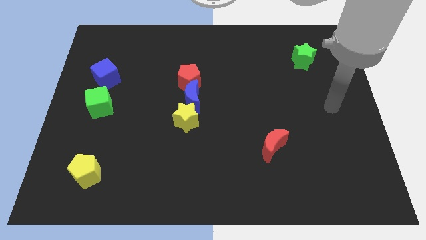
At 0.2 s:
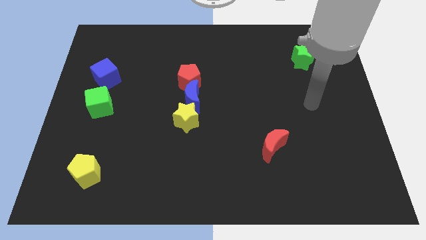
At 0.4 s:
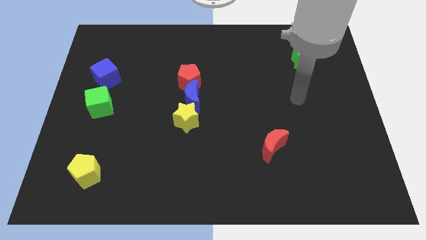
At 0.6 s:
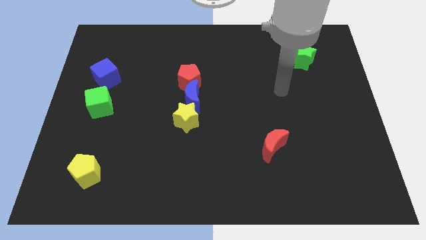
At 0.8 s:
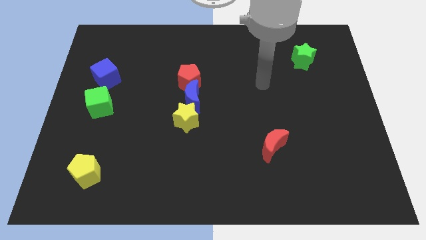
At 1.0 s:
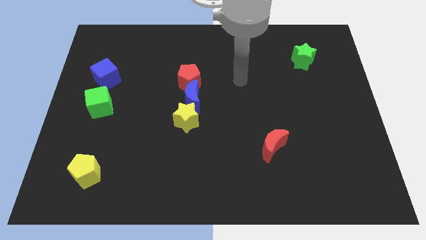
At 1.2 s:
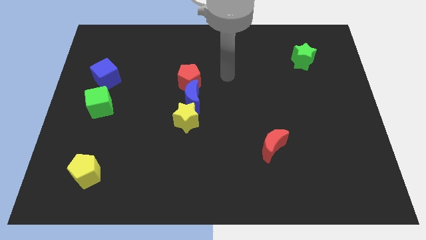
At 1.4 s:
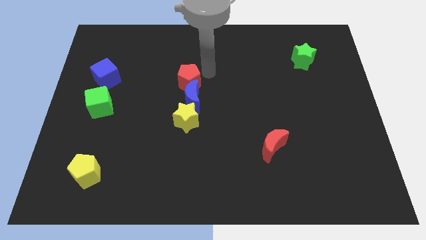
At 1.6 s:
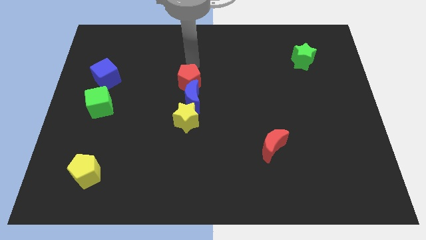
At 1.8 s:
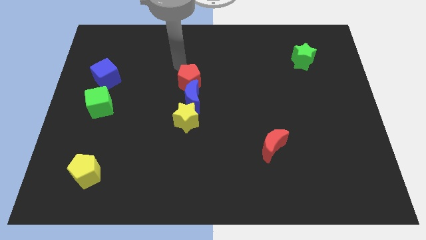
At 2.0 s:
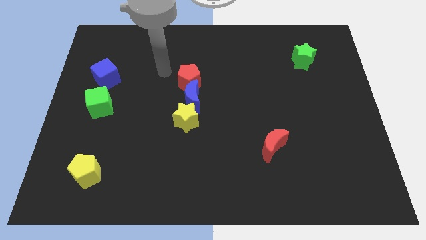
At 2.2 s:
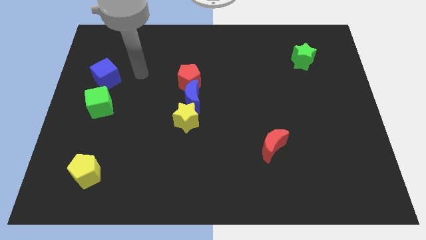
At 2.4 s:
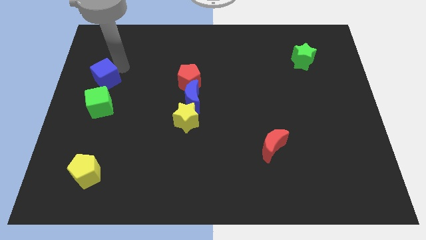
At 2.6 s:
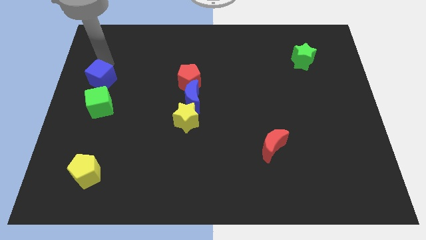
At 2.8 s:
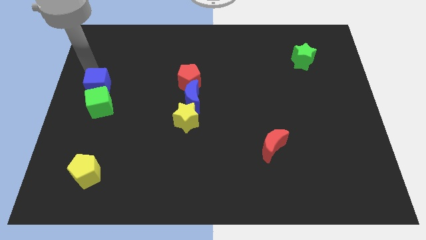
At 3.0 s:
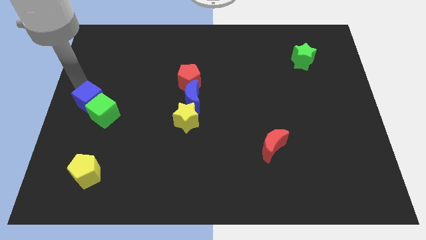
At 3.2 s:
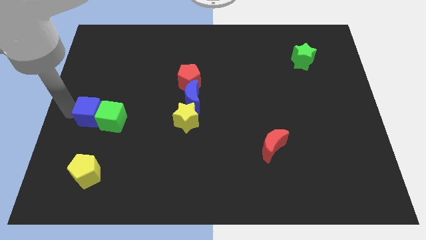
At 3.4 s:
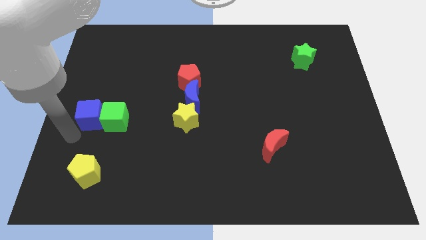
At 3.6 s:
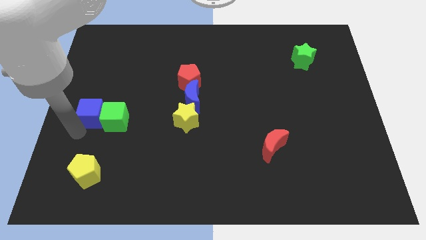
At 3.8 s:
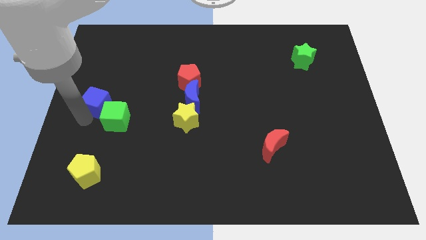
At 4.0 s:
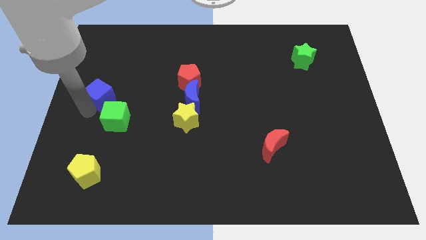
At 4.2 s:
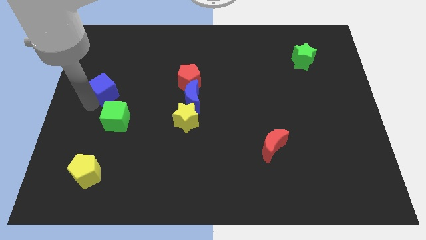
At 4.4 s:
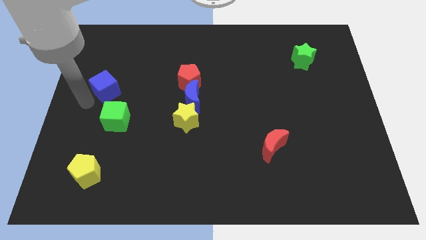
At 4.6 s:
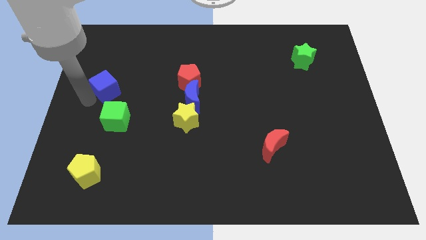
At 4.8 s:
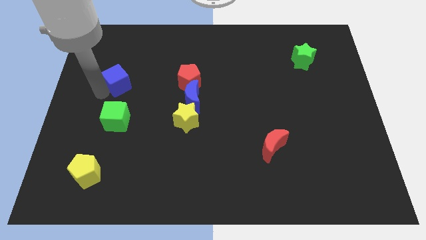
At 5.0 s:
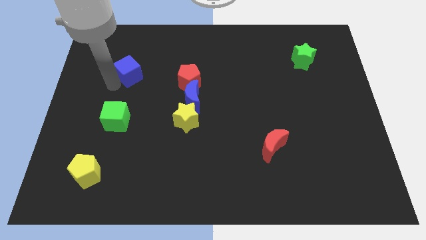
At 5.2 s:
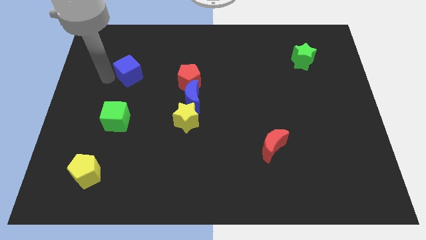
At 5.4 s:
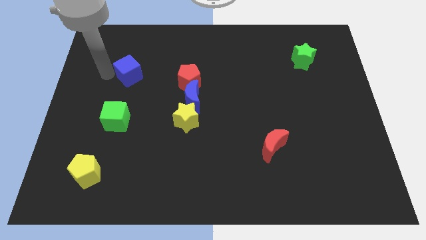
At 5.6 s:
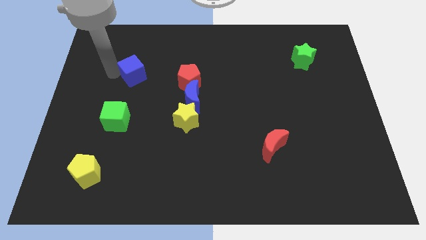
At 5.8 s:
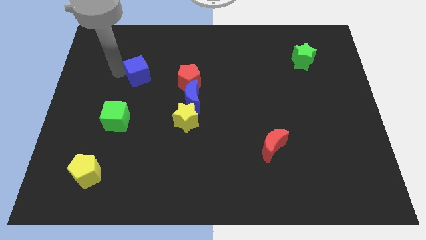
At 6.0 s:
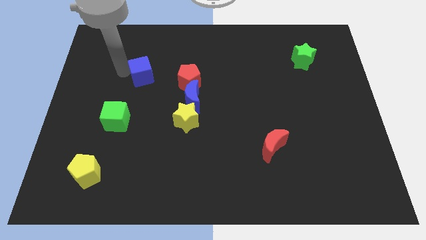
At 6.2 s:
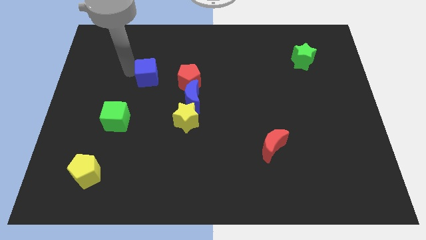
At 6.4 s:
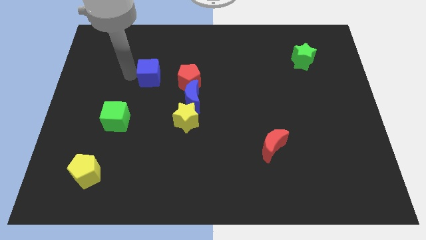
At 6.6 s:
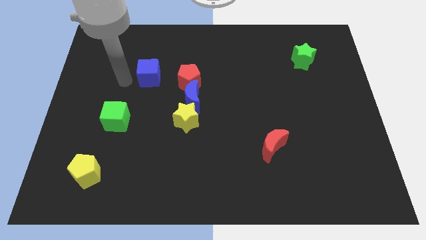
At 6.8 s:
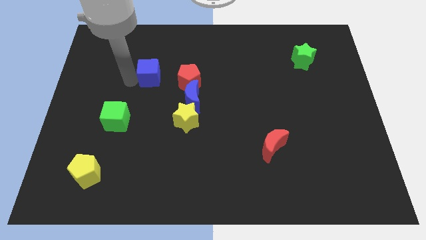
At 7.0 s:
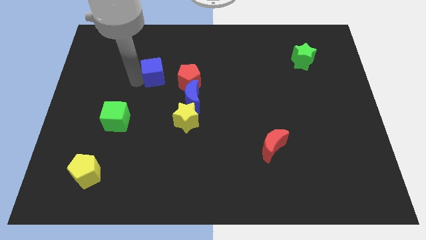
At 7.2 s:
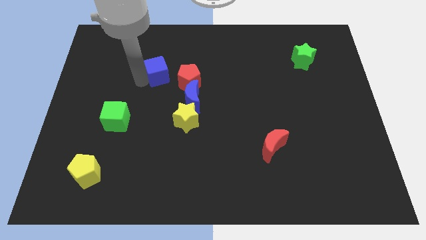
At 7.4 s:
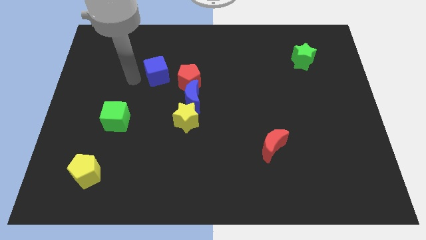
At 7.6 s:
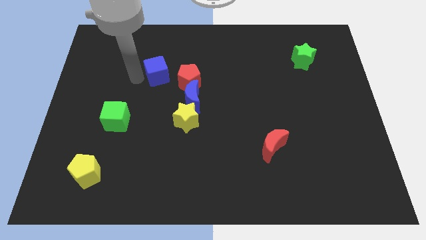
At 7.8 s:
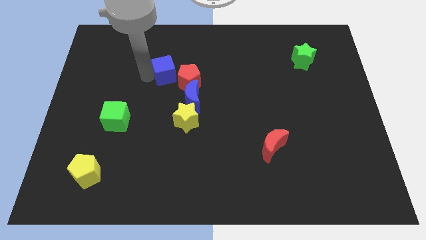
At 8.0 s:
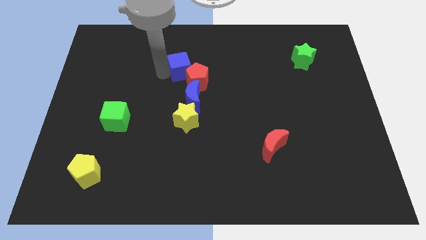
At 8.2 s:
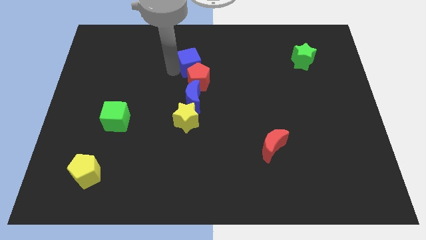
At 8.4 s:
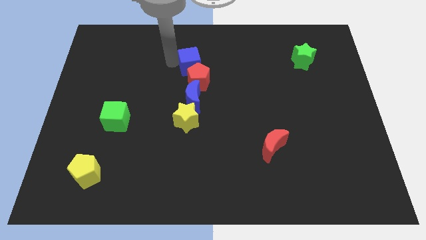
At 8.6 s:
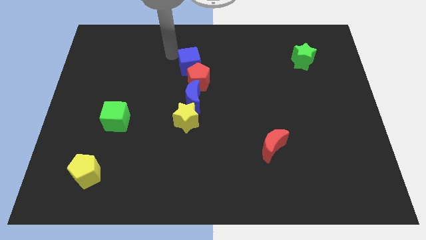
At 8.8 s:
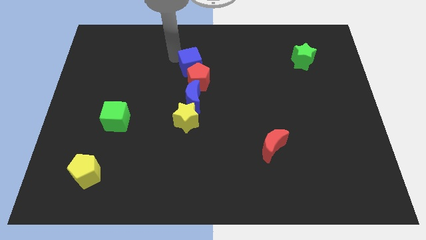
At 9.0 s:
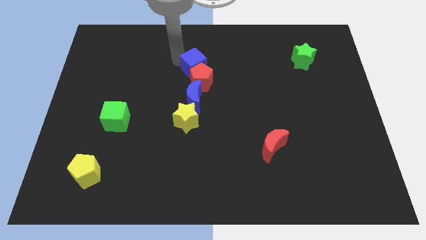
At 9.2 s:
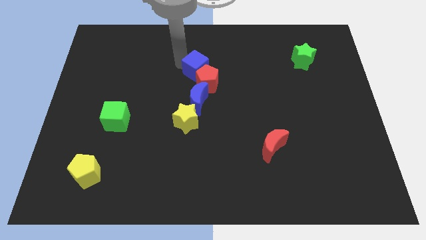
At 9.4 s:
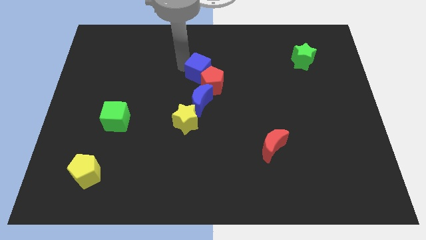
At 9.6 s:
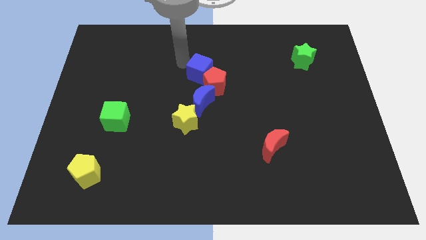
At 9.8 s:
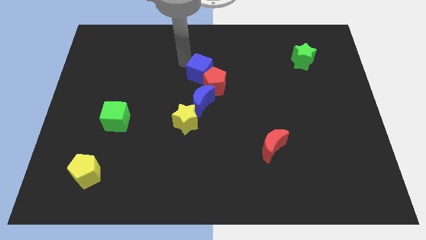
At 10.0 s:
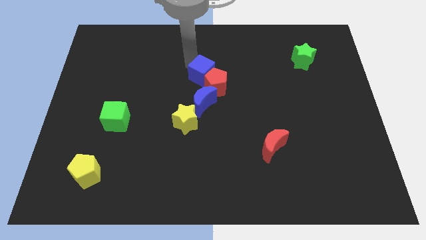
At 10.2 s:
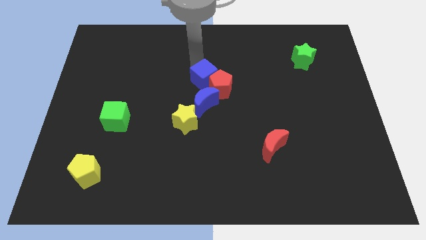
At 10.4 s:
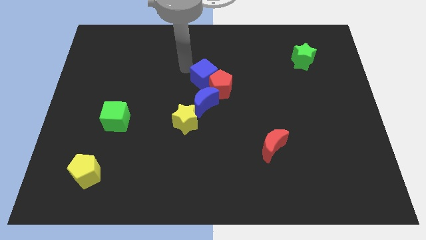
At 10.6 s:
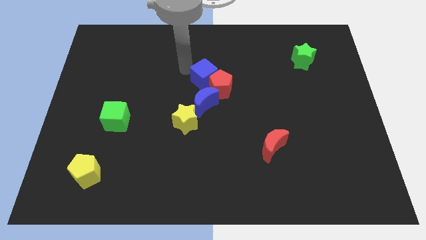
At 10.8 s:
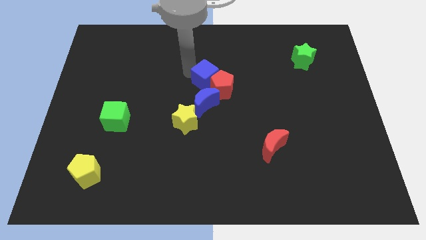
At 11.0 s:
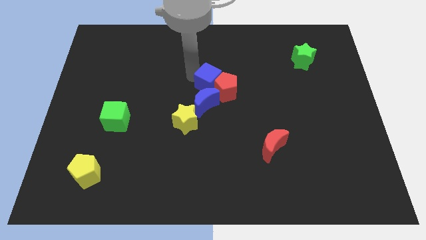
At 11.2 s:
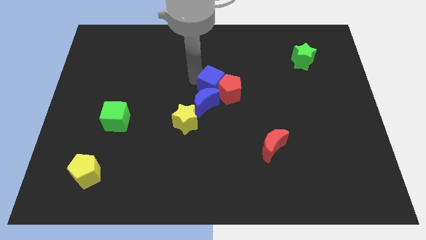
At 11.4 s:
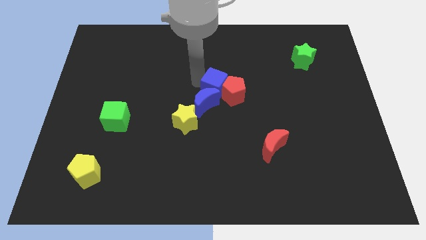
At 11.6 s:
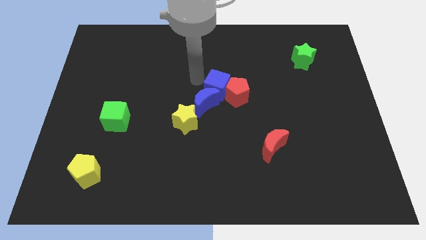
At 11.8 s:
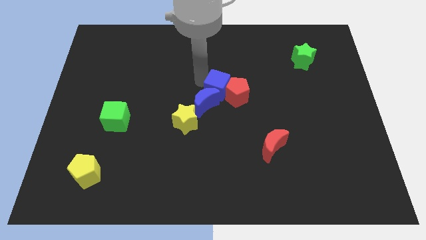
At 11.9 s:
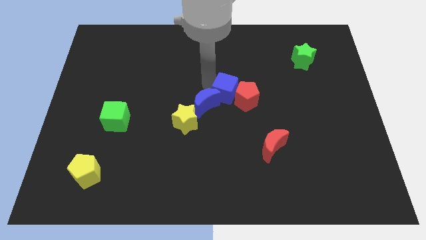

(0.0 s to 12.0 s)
slide the blue cube just right of the blue moon

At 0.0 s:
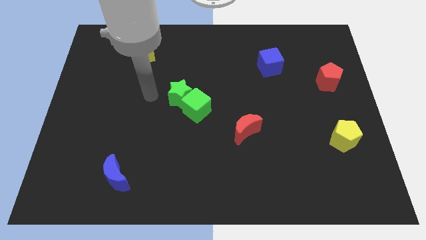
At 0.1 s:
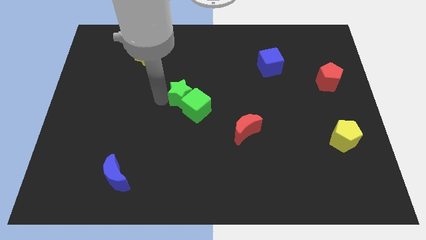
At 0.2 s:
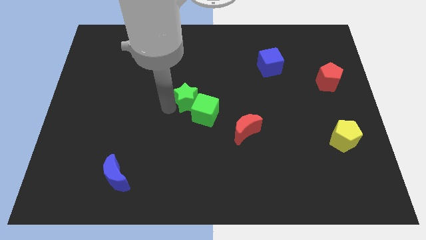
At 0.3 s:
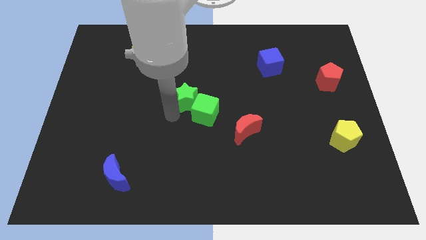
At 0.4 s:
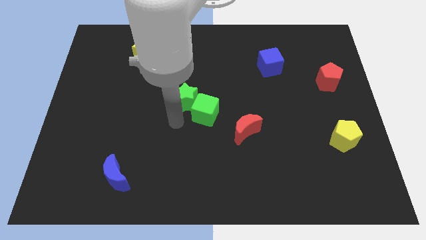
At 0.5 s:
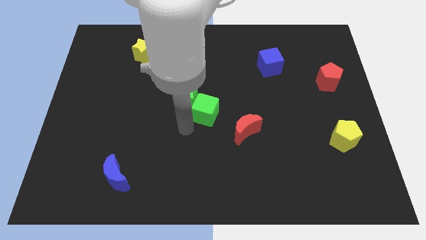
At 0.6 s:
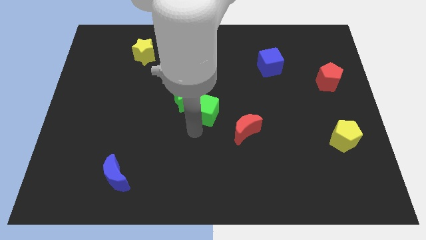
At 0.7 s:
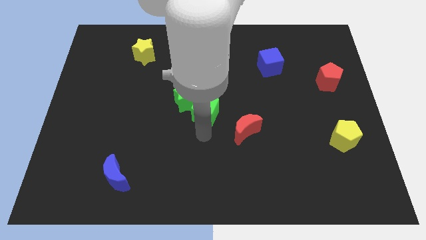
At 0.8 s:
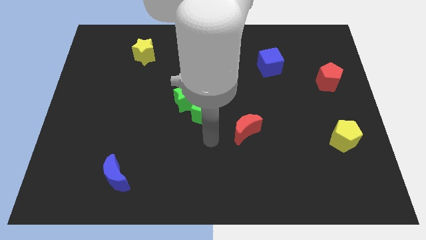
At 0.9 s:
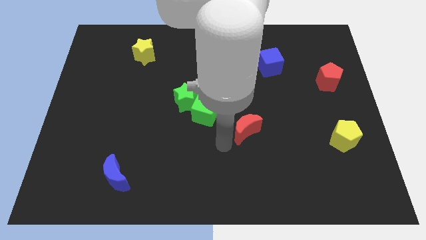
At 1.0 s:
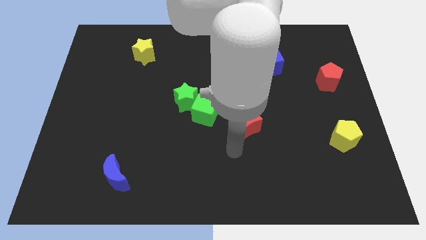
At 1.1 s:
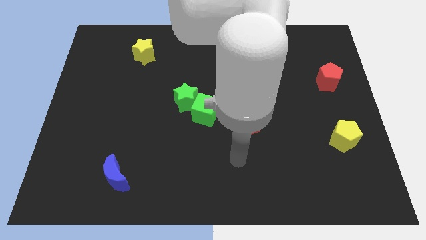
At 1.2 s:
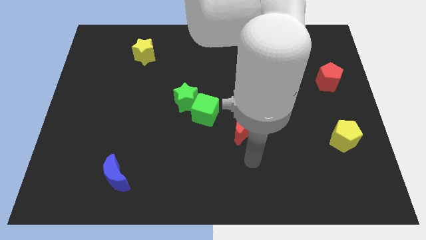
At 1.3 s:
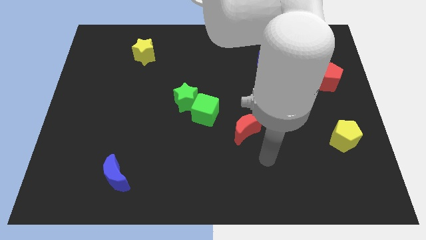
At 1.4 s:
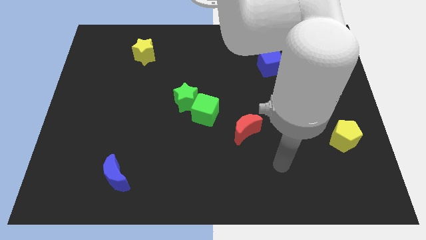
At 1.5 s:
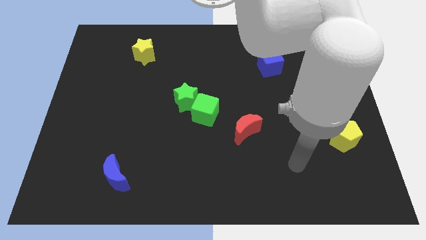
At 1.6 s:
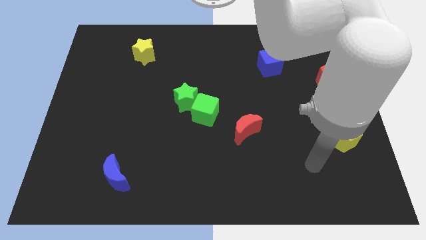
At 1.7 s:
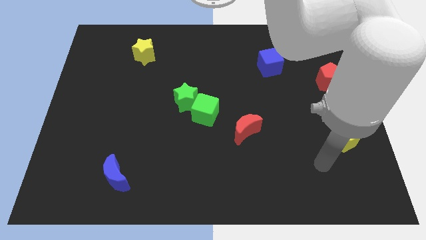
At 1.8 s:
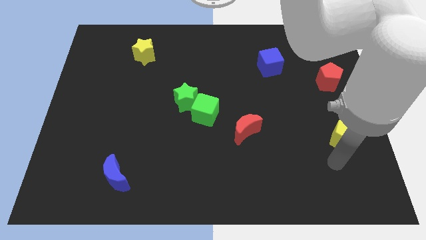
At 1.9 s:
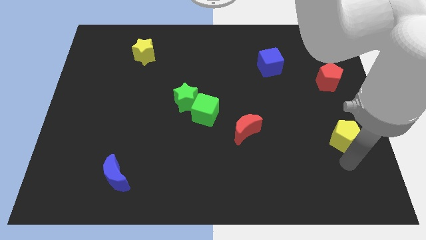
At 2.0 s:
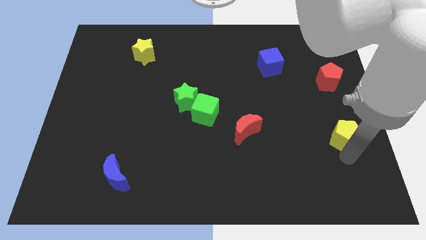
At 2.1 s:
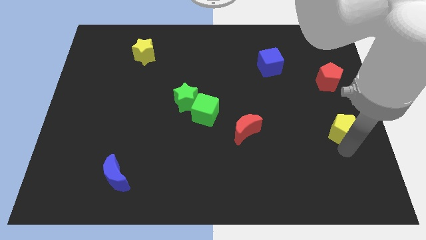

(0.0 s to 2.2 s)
move the yellow pentagon to the bottom side of the red pentagon
